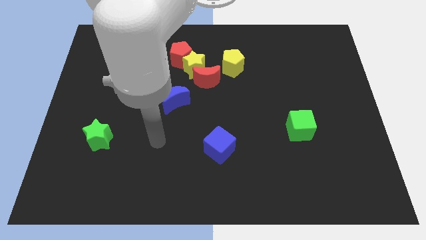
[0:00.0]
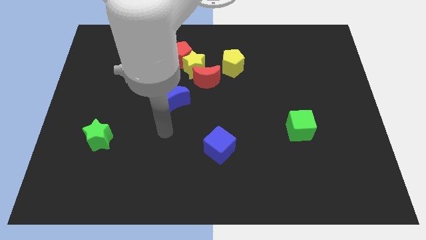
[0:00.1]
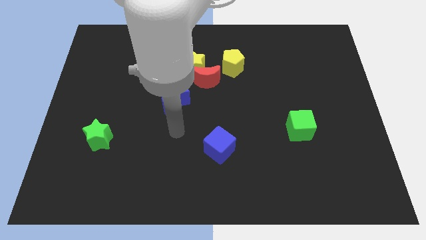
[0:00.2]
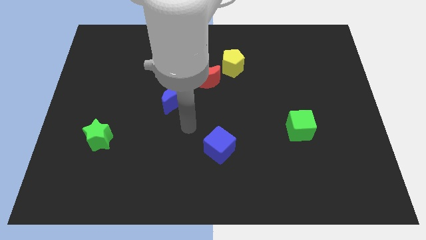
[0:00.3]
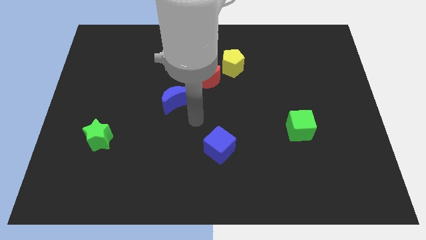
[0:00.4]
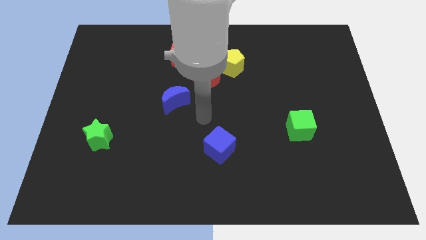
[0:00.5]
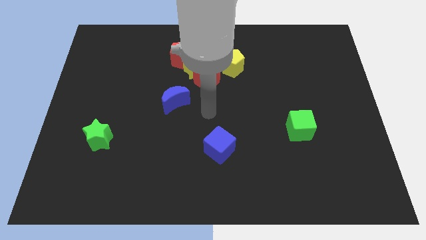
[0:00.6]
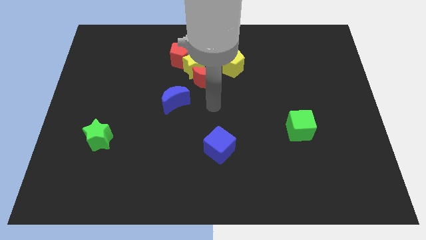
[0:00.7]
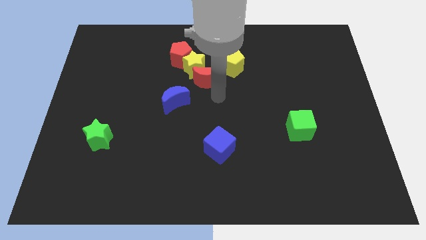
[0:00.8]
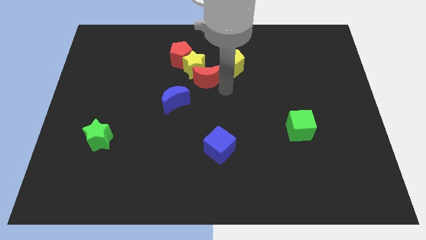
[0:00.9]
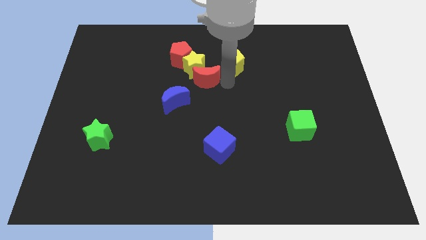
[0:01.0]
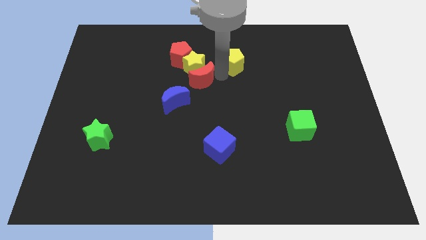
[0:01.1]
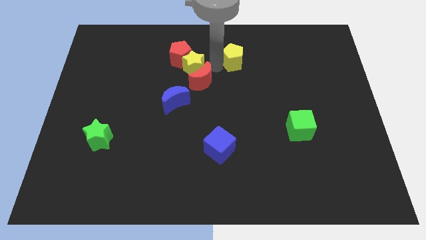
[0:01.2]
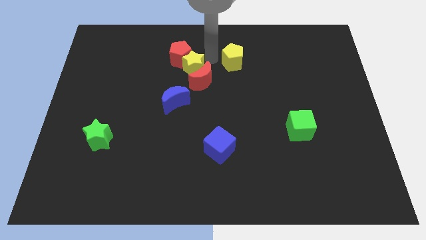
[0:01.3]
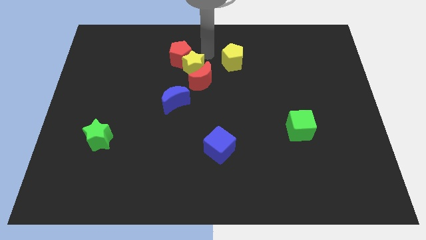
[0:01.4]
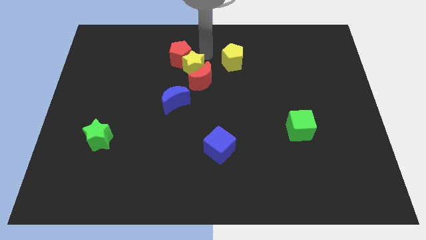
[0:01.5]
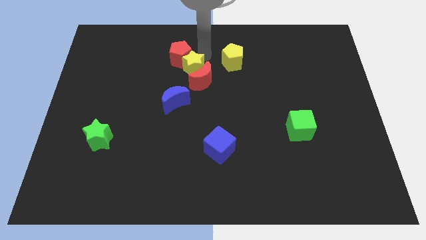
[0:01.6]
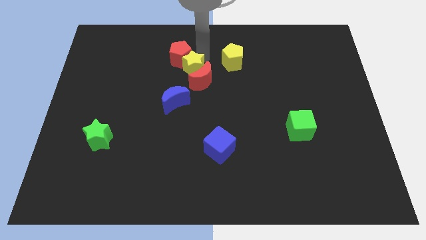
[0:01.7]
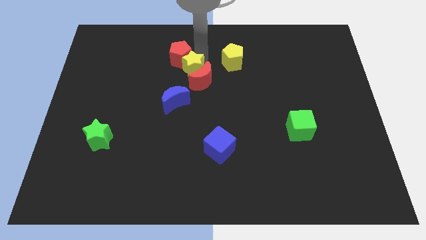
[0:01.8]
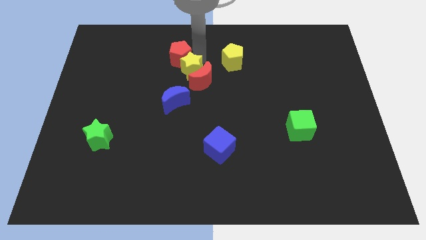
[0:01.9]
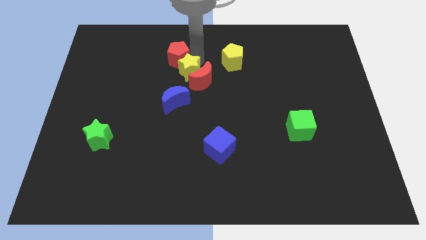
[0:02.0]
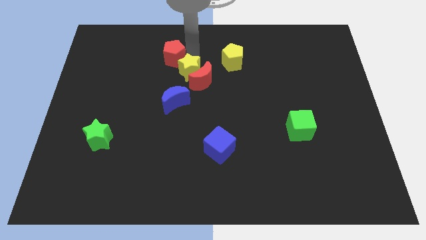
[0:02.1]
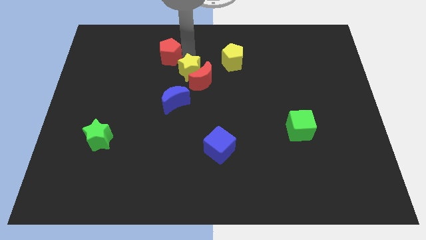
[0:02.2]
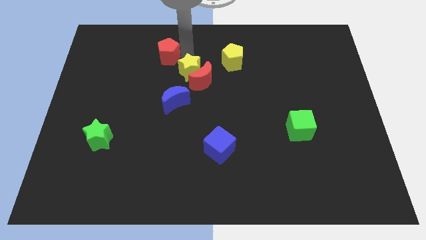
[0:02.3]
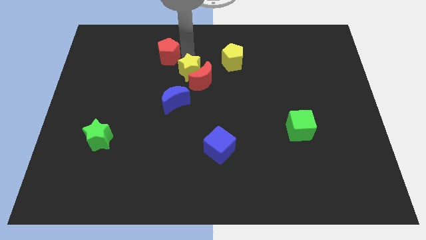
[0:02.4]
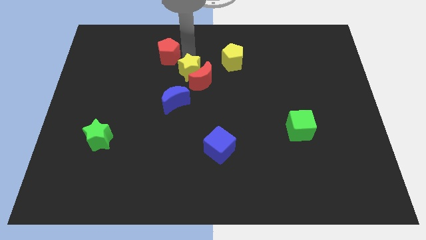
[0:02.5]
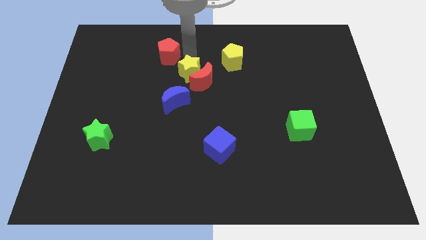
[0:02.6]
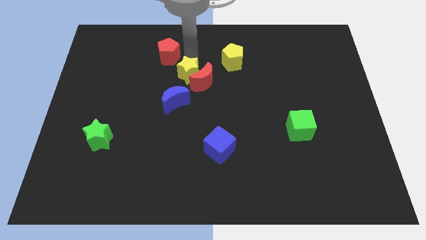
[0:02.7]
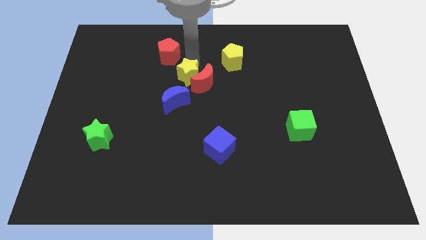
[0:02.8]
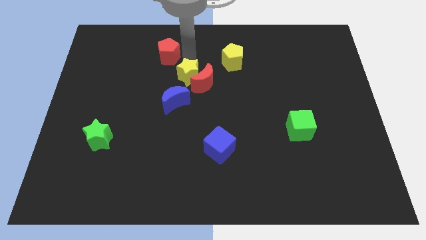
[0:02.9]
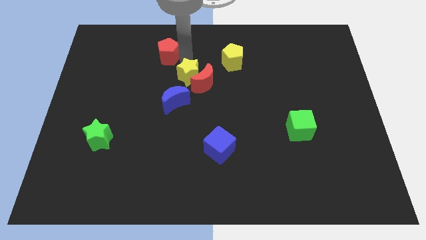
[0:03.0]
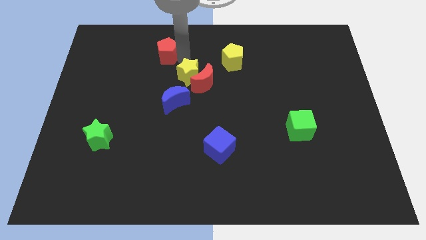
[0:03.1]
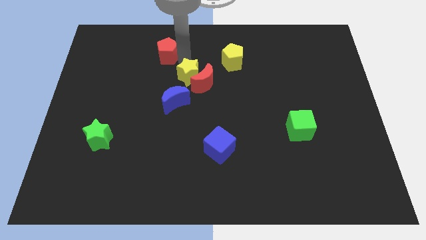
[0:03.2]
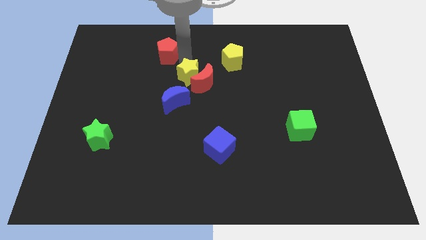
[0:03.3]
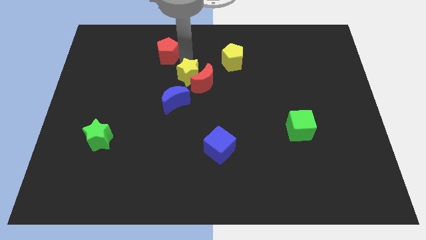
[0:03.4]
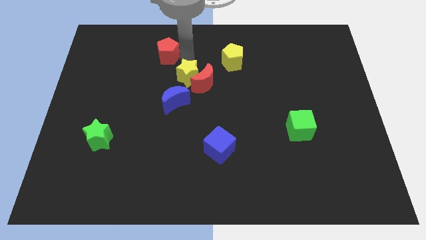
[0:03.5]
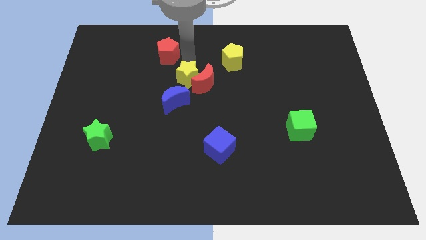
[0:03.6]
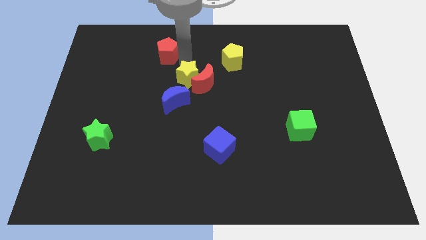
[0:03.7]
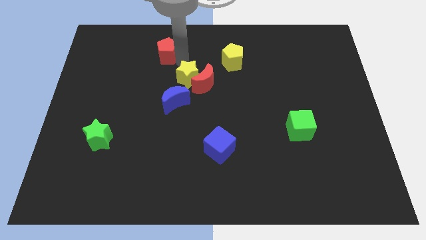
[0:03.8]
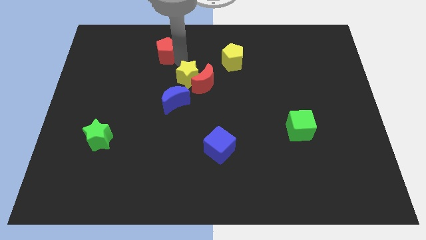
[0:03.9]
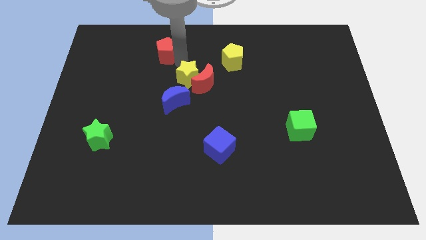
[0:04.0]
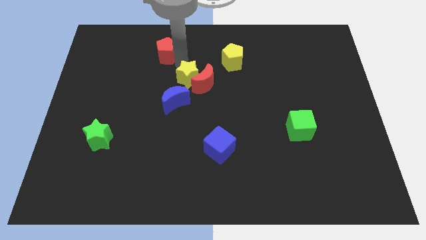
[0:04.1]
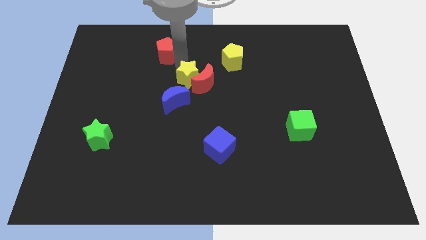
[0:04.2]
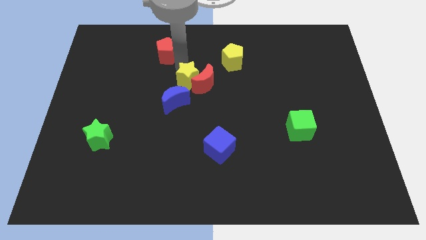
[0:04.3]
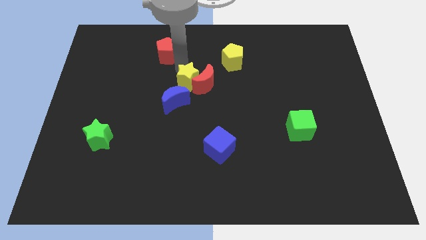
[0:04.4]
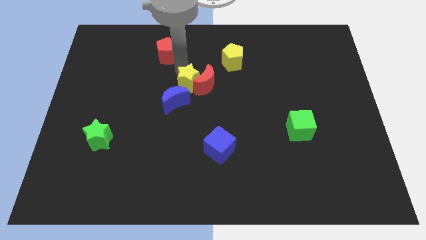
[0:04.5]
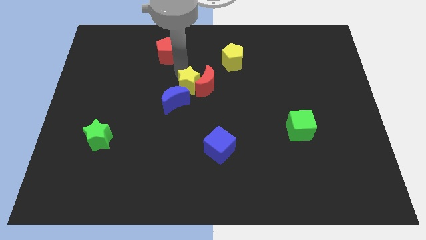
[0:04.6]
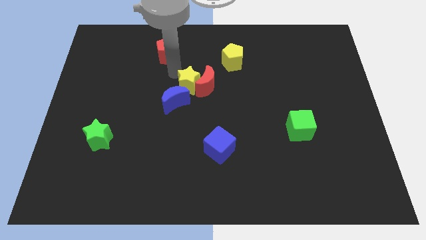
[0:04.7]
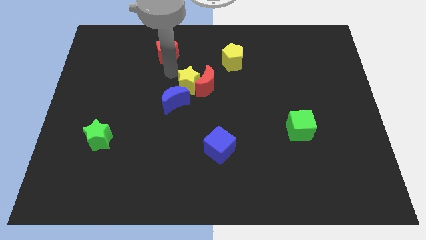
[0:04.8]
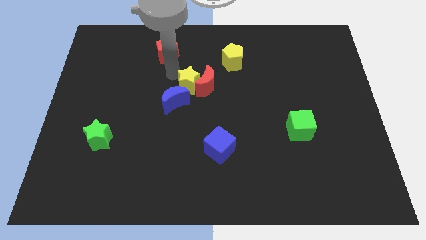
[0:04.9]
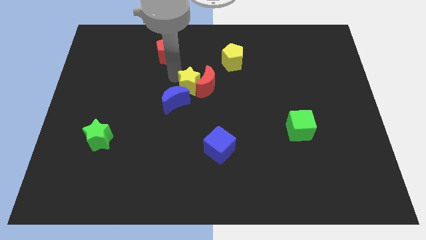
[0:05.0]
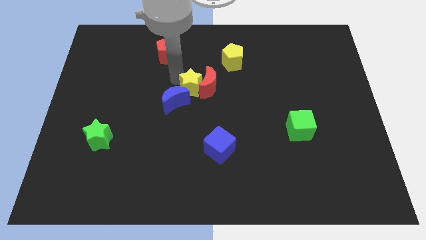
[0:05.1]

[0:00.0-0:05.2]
put the yellow star just right of the blue moon

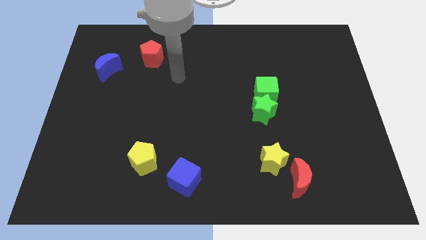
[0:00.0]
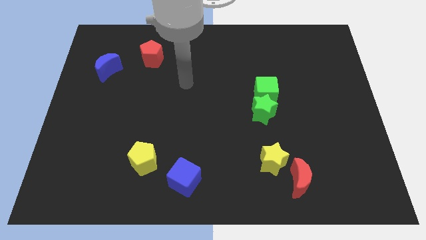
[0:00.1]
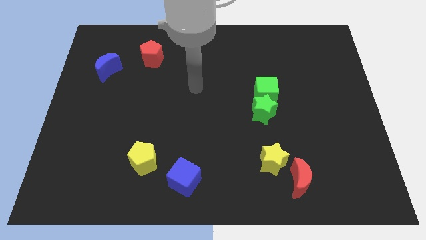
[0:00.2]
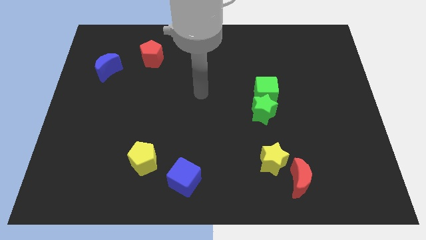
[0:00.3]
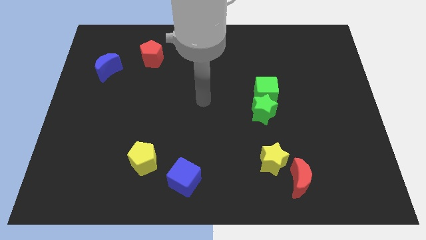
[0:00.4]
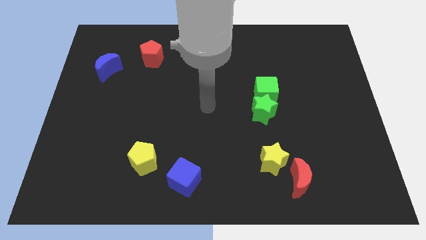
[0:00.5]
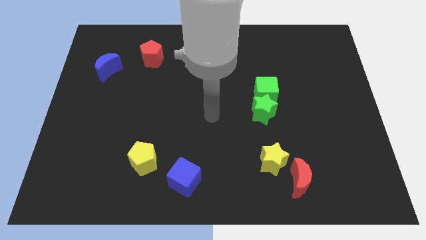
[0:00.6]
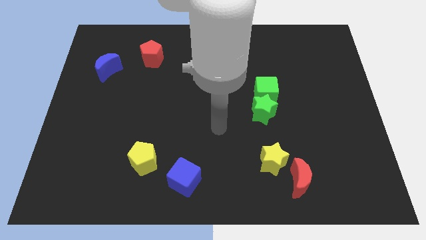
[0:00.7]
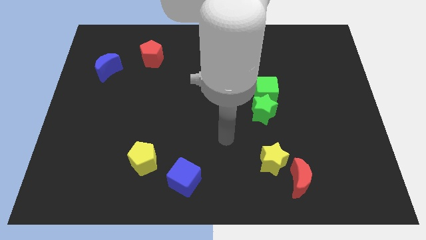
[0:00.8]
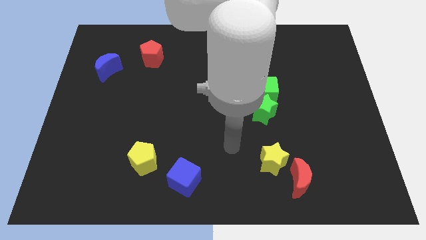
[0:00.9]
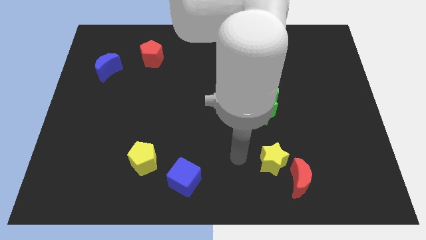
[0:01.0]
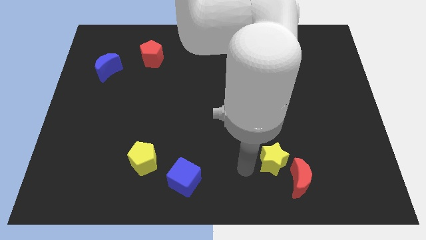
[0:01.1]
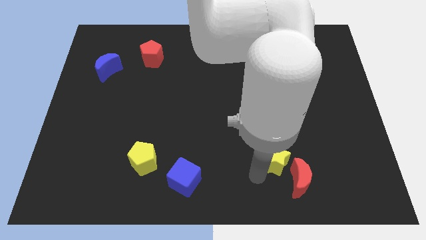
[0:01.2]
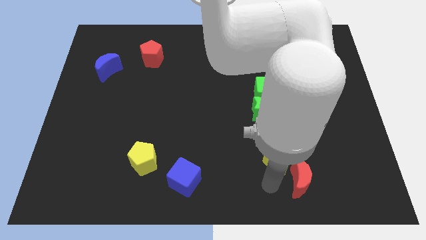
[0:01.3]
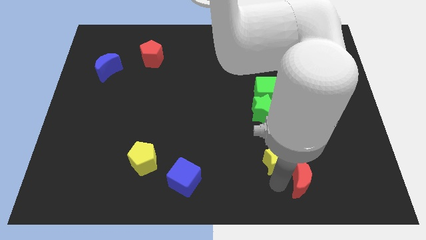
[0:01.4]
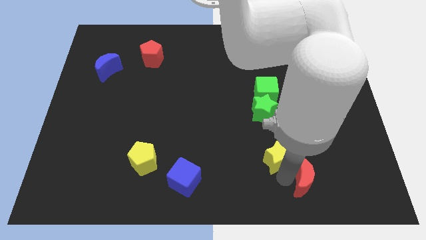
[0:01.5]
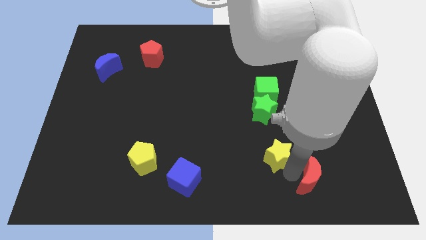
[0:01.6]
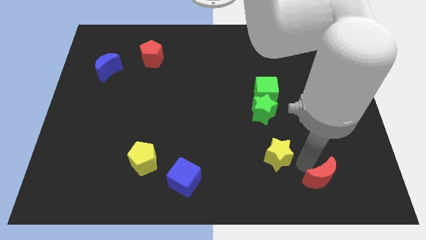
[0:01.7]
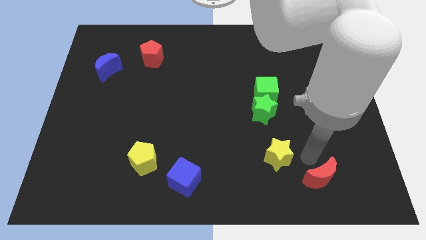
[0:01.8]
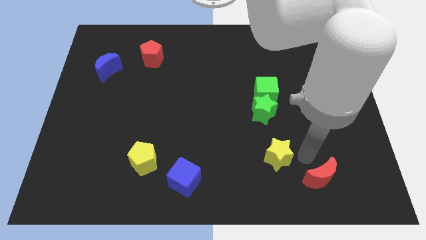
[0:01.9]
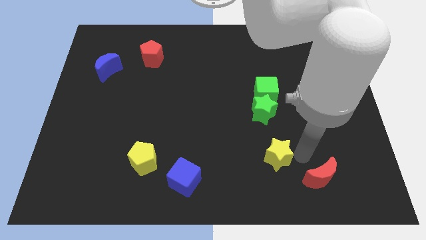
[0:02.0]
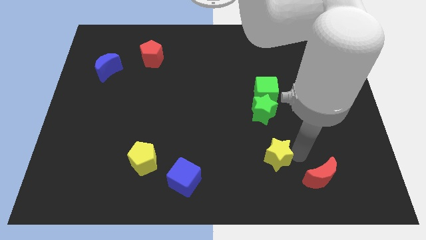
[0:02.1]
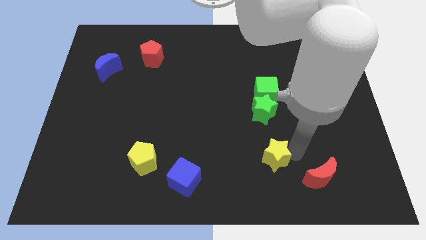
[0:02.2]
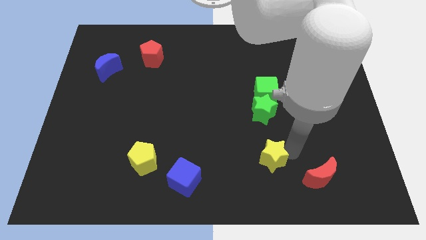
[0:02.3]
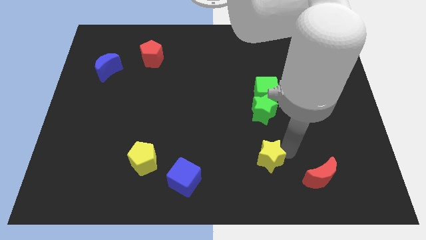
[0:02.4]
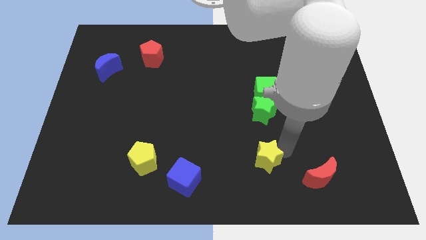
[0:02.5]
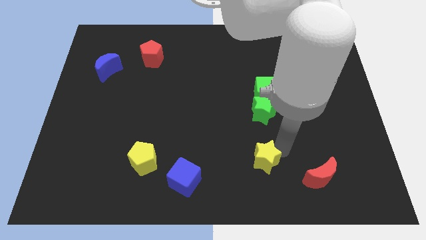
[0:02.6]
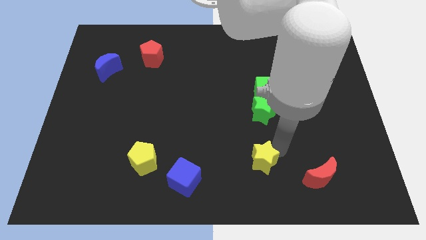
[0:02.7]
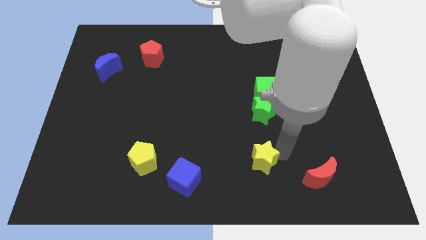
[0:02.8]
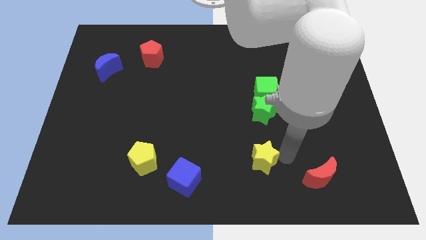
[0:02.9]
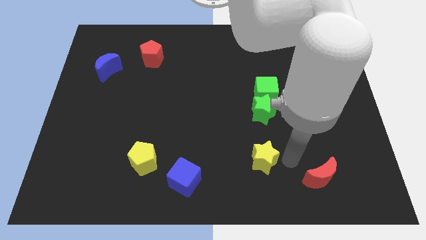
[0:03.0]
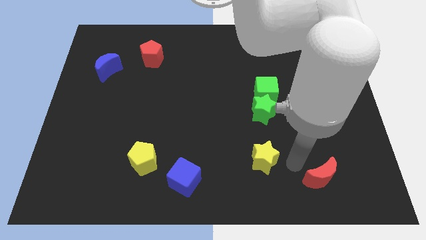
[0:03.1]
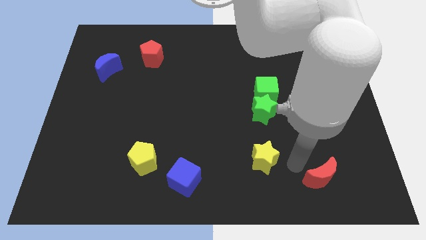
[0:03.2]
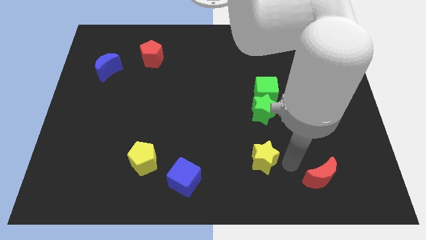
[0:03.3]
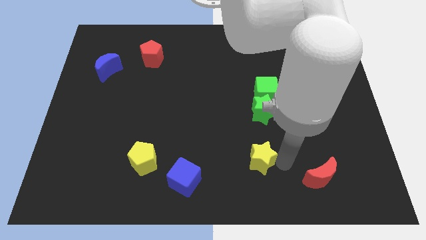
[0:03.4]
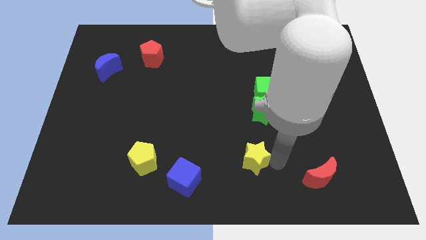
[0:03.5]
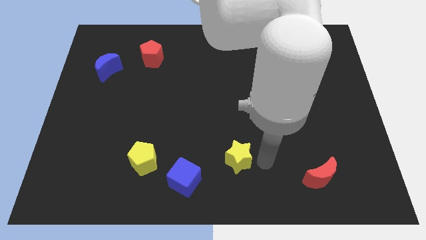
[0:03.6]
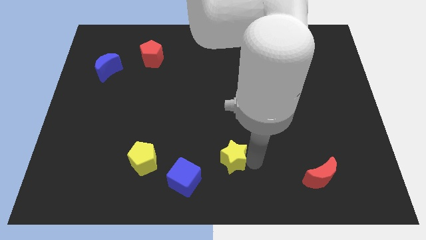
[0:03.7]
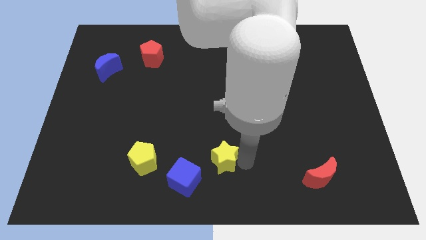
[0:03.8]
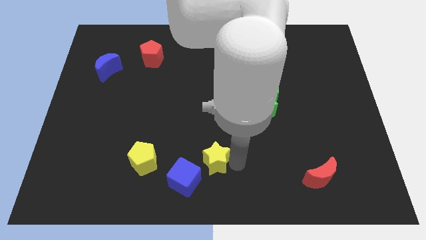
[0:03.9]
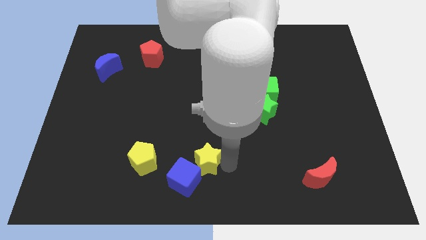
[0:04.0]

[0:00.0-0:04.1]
move the yellow star to the top side of the blue cube
